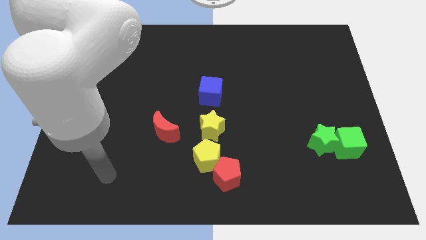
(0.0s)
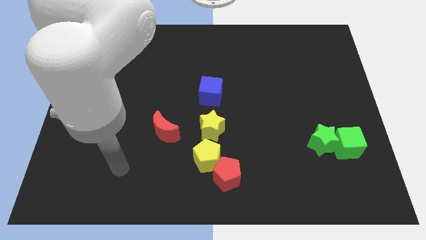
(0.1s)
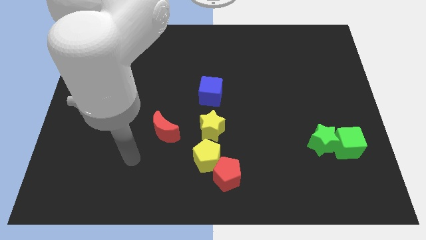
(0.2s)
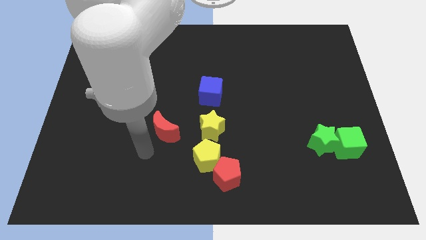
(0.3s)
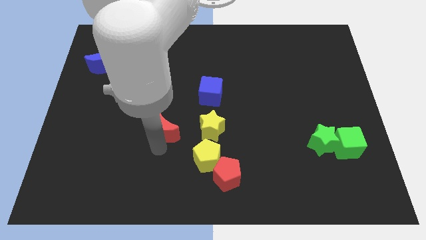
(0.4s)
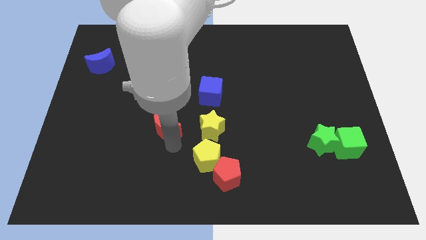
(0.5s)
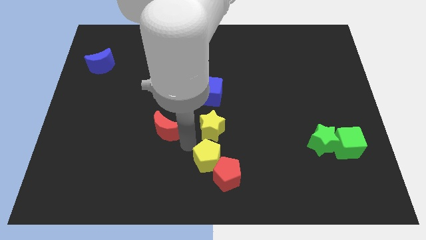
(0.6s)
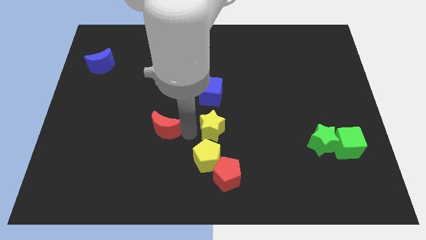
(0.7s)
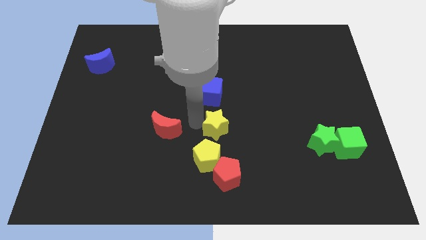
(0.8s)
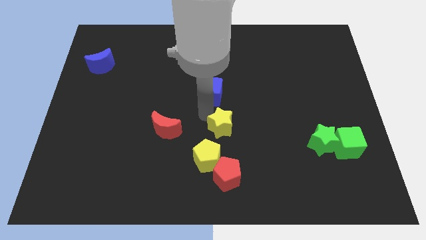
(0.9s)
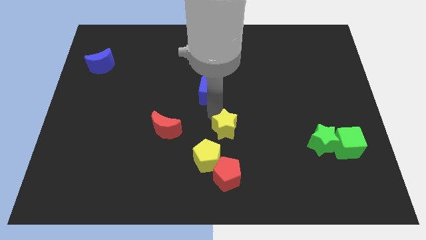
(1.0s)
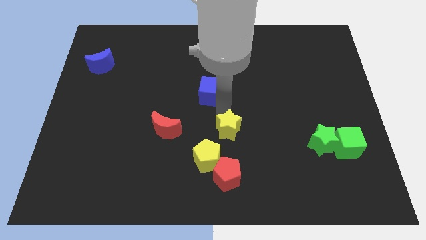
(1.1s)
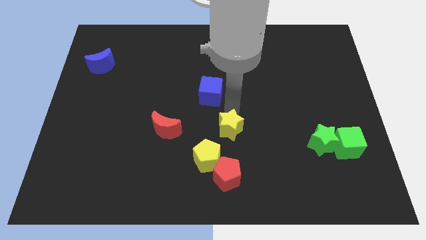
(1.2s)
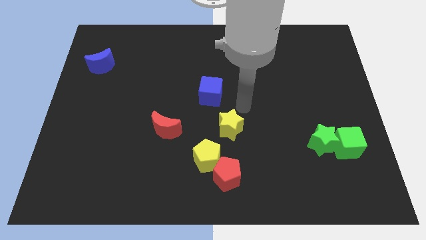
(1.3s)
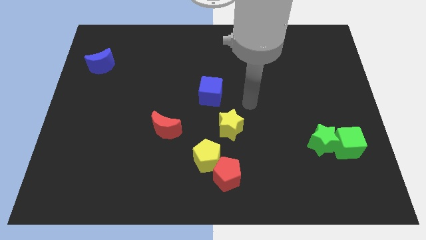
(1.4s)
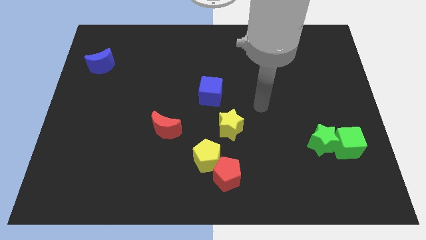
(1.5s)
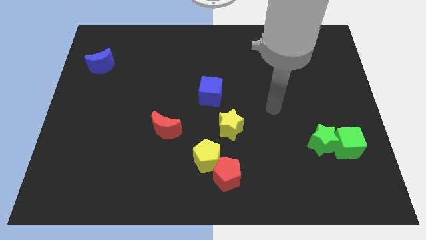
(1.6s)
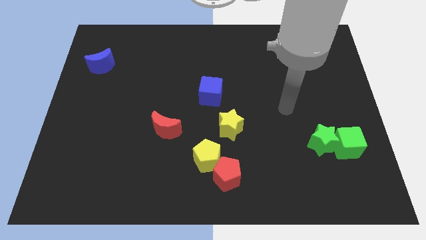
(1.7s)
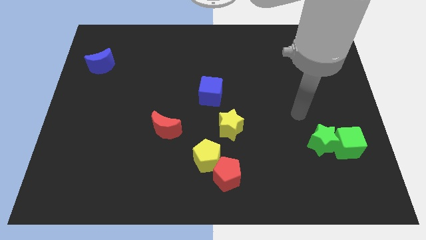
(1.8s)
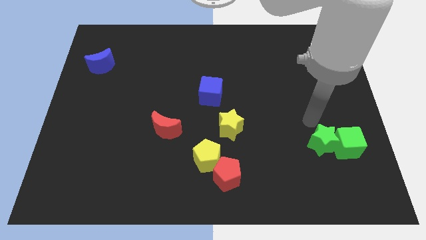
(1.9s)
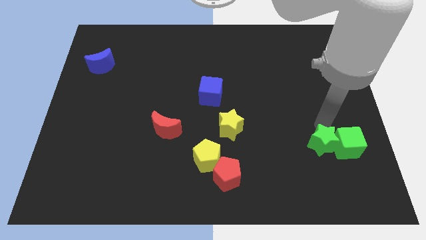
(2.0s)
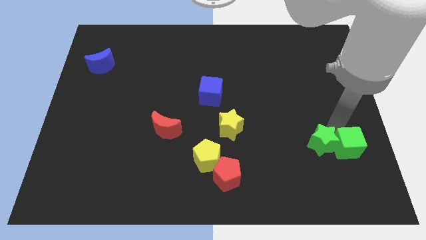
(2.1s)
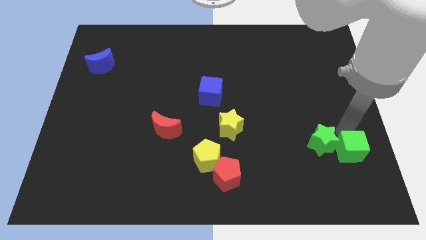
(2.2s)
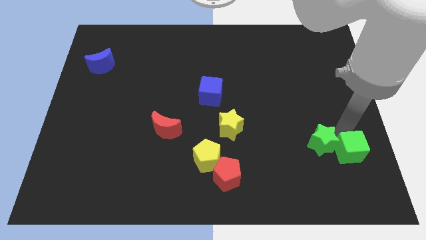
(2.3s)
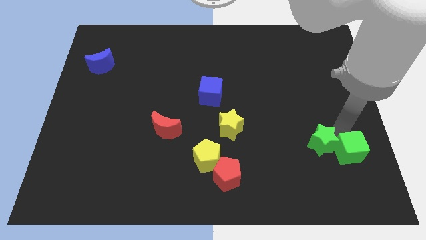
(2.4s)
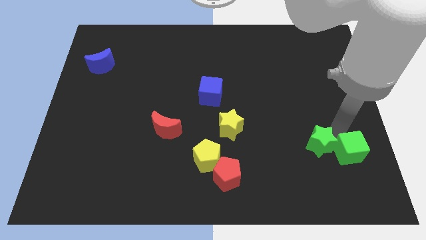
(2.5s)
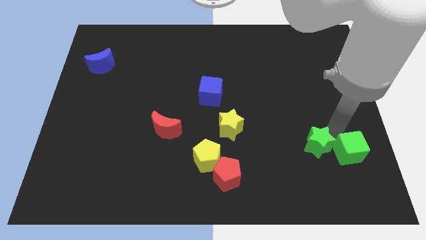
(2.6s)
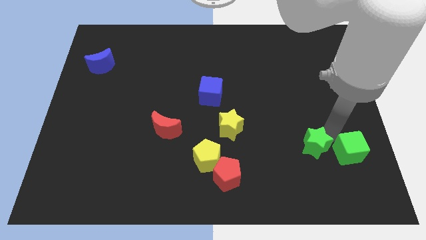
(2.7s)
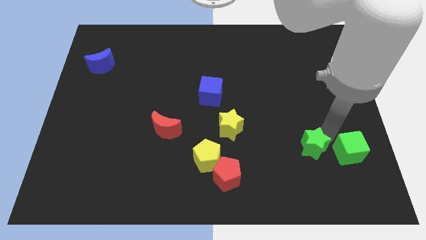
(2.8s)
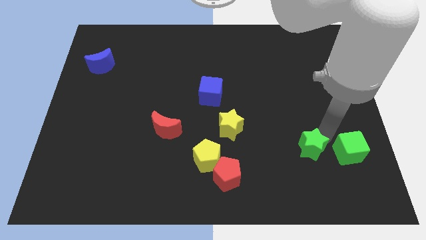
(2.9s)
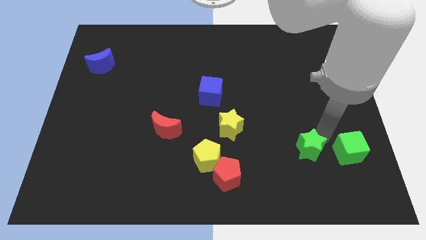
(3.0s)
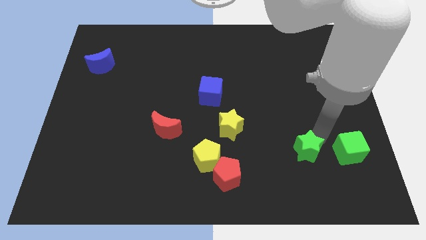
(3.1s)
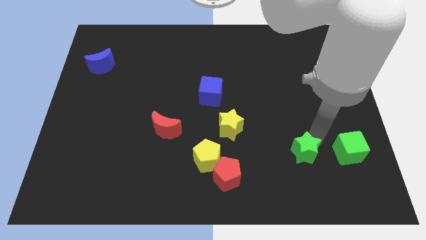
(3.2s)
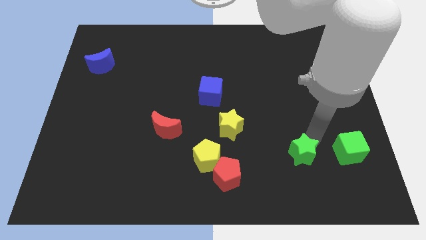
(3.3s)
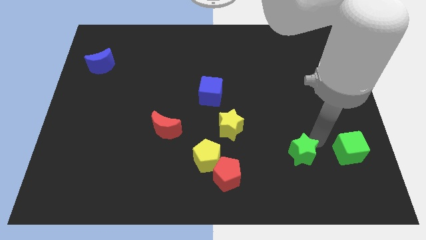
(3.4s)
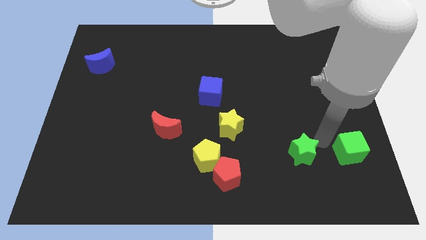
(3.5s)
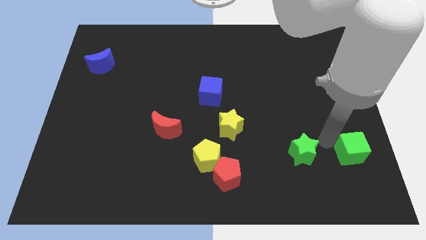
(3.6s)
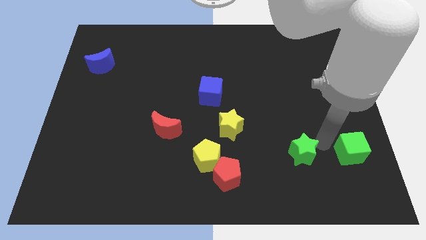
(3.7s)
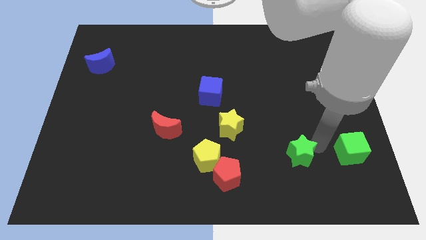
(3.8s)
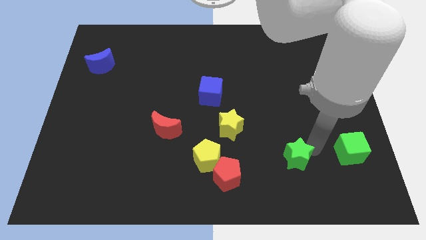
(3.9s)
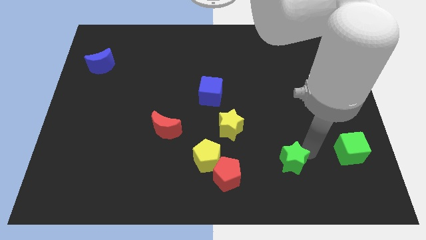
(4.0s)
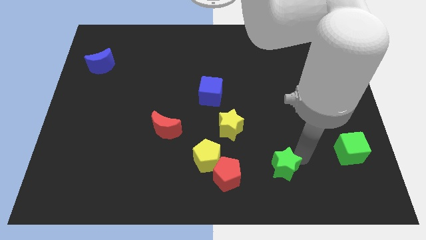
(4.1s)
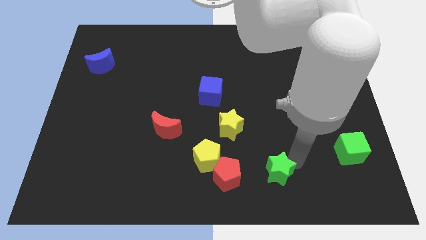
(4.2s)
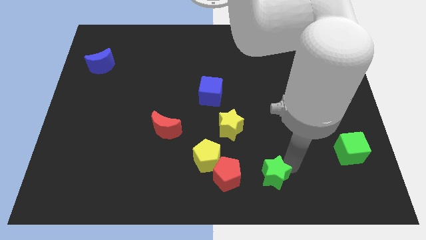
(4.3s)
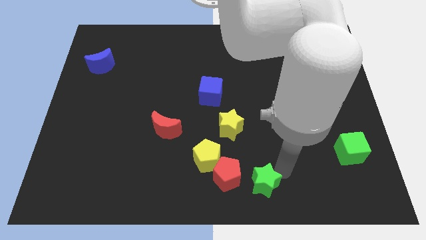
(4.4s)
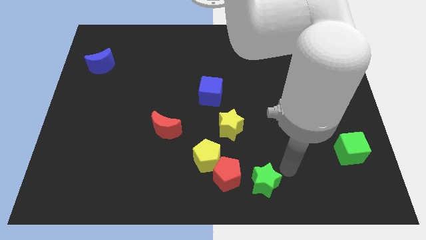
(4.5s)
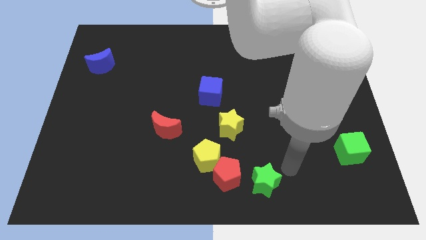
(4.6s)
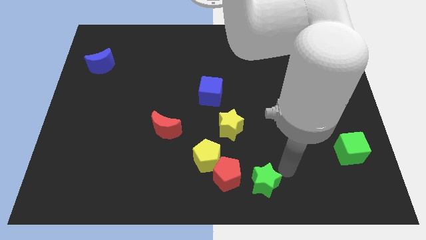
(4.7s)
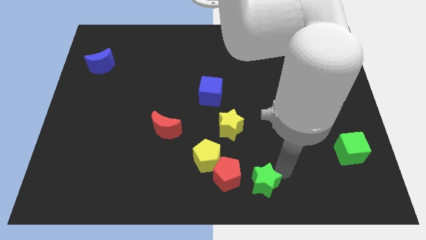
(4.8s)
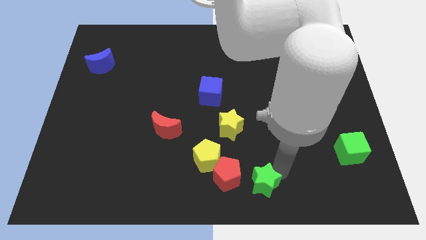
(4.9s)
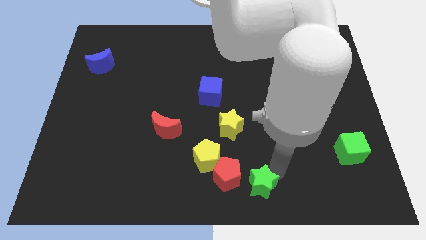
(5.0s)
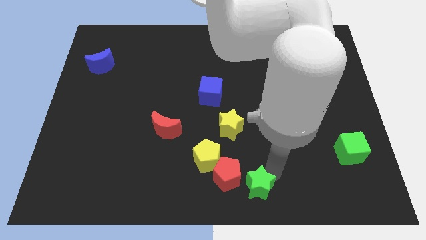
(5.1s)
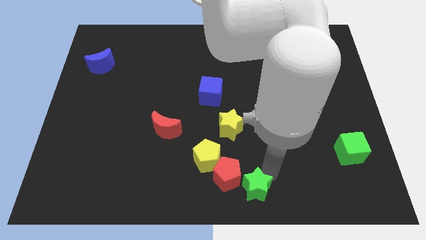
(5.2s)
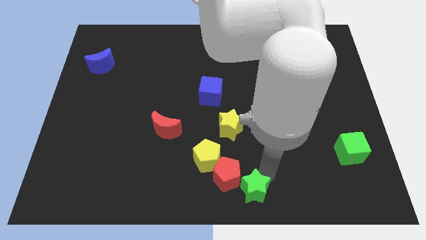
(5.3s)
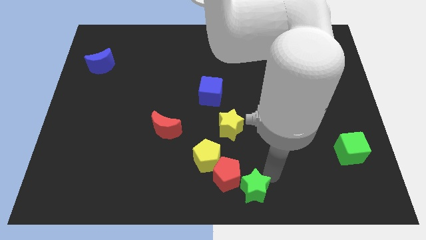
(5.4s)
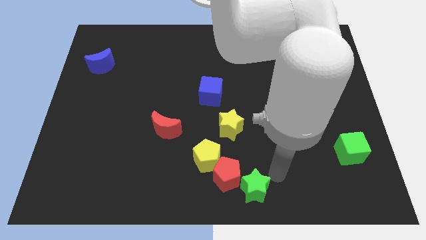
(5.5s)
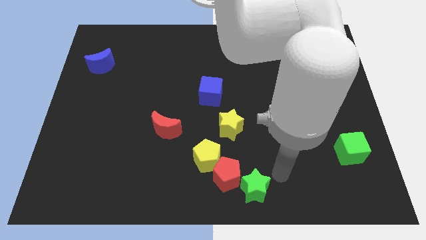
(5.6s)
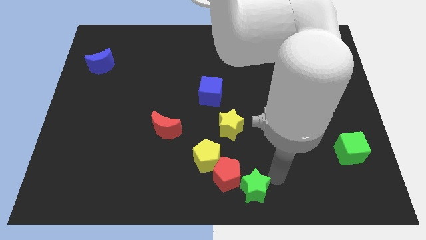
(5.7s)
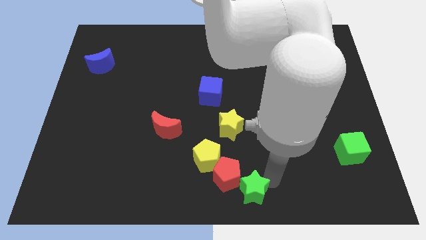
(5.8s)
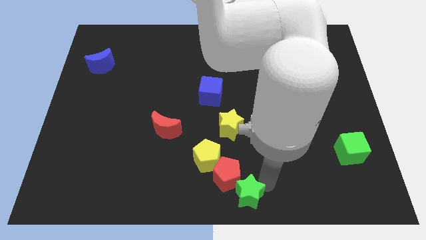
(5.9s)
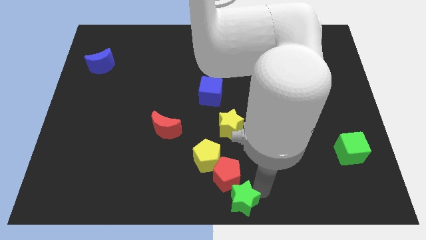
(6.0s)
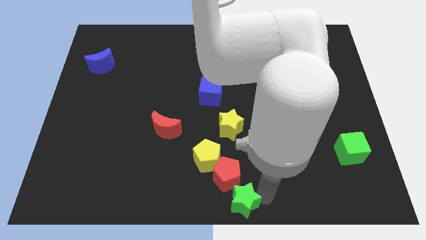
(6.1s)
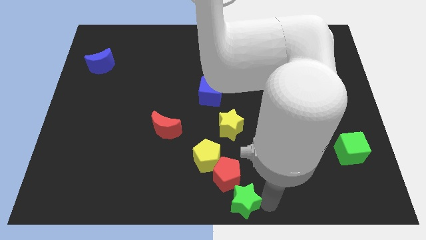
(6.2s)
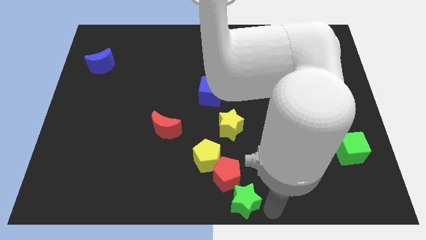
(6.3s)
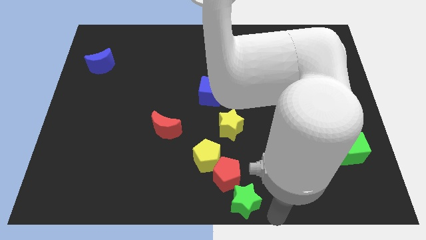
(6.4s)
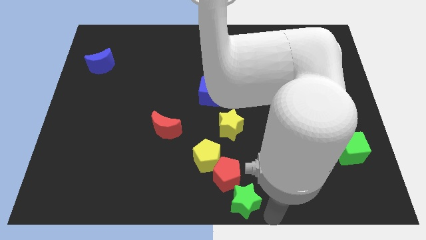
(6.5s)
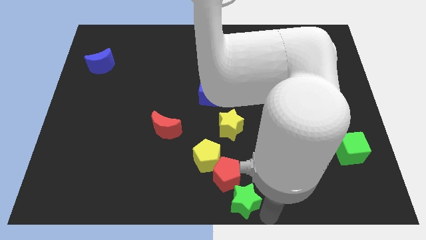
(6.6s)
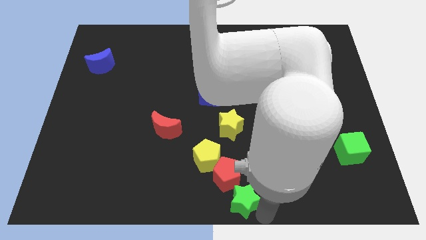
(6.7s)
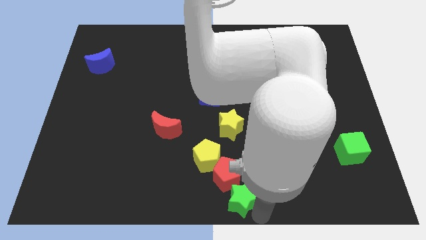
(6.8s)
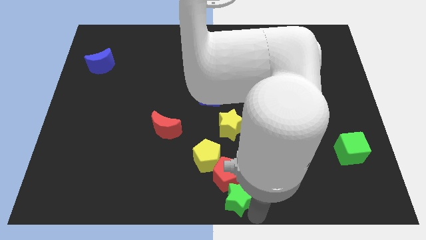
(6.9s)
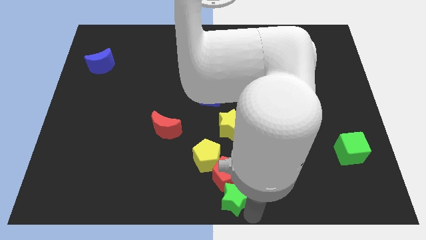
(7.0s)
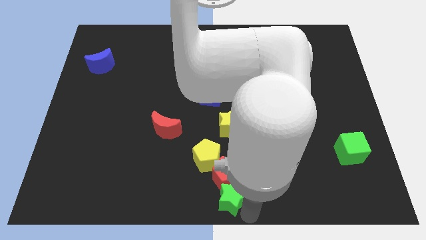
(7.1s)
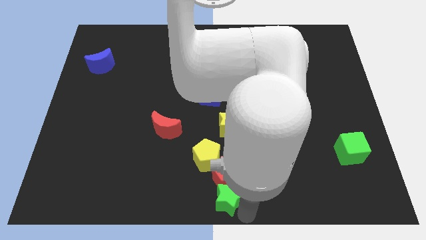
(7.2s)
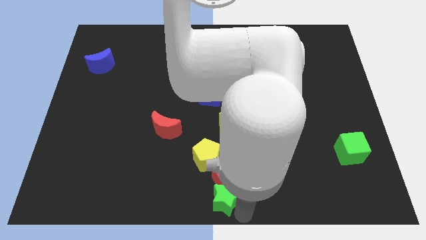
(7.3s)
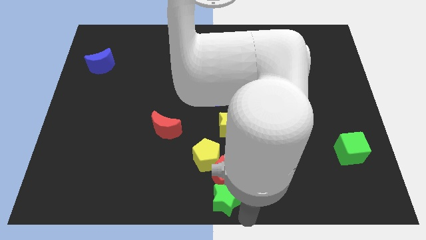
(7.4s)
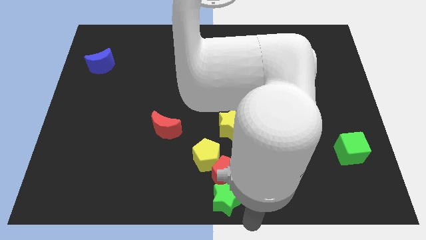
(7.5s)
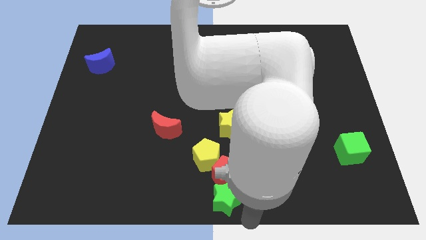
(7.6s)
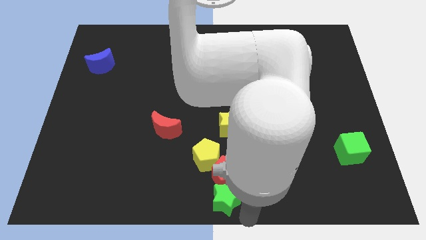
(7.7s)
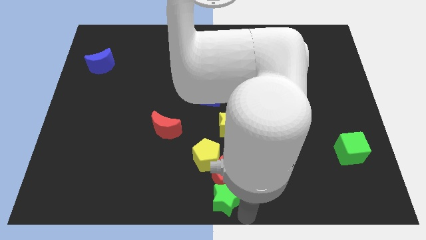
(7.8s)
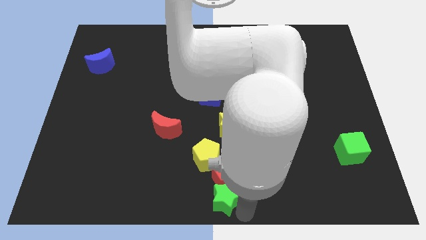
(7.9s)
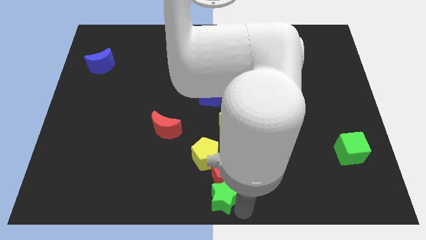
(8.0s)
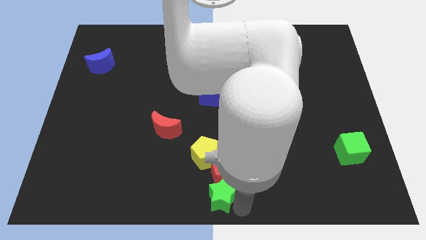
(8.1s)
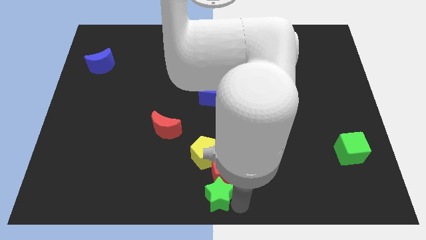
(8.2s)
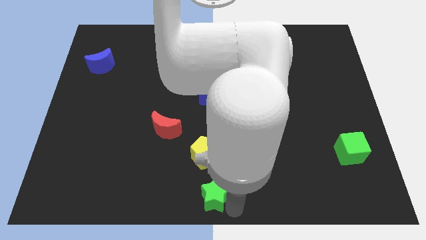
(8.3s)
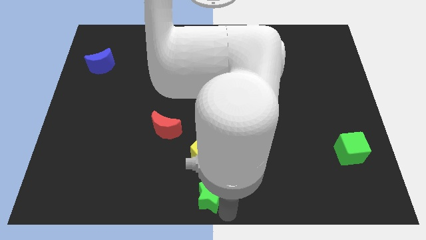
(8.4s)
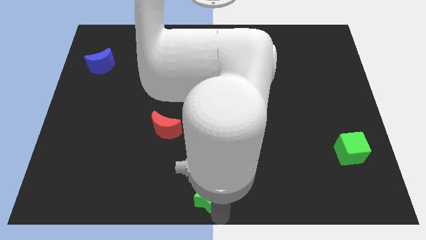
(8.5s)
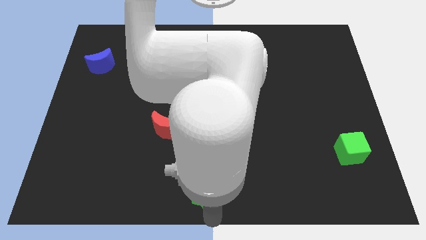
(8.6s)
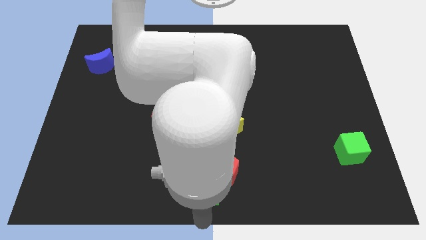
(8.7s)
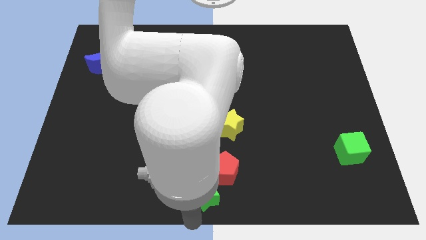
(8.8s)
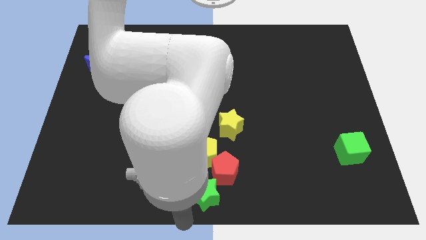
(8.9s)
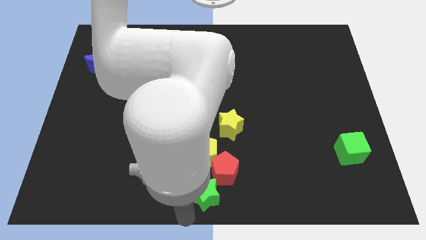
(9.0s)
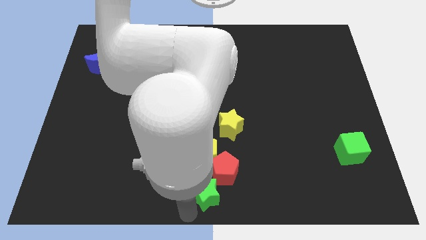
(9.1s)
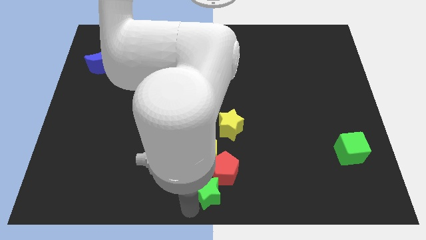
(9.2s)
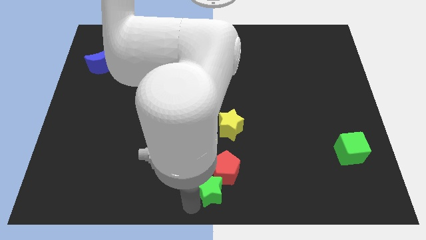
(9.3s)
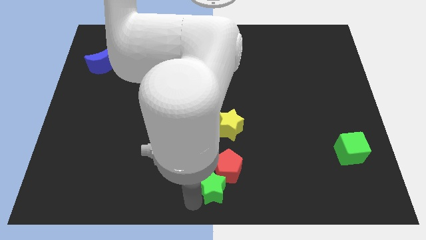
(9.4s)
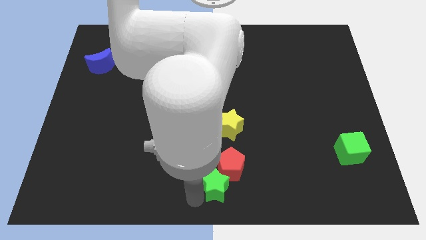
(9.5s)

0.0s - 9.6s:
move the green star to the bottom side of the yellow star
